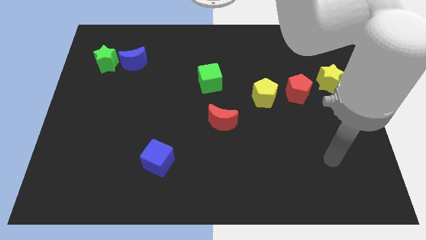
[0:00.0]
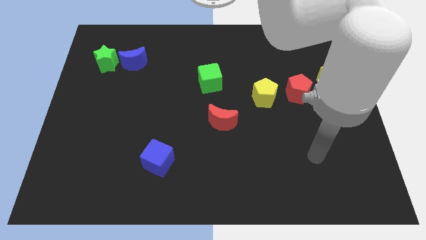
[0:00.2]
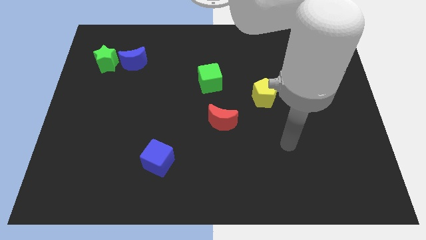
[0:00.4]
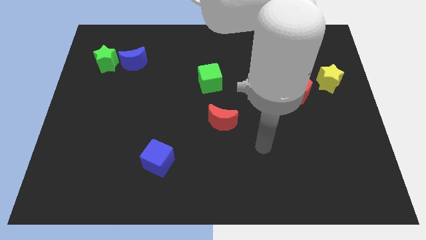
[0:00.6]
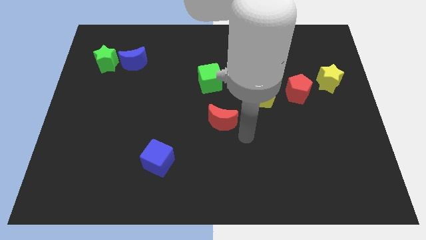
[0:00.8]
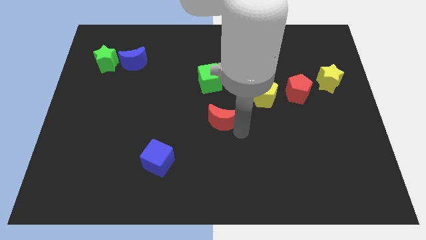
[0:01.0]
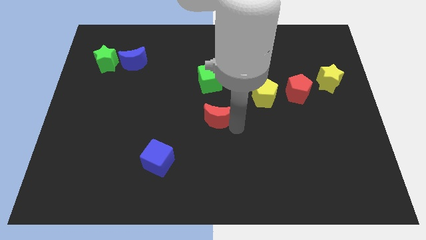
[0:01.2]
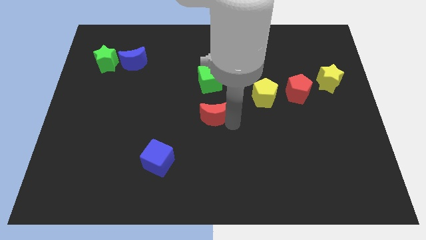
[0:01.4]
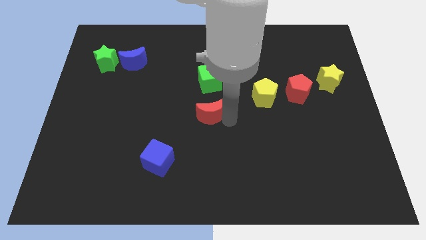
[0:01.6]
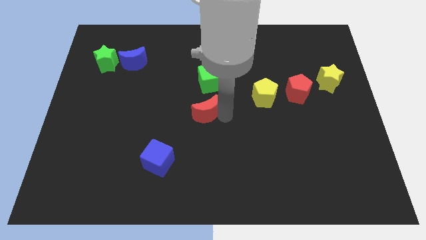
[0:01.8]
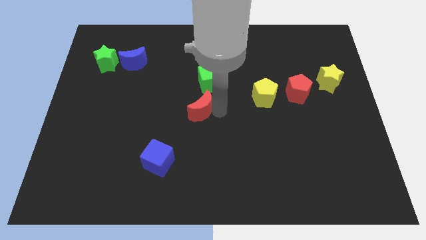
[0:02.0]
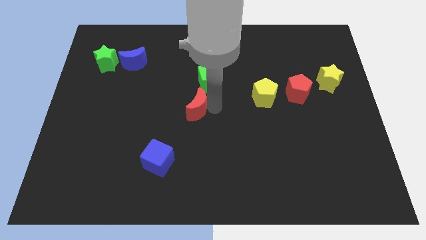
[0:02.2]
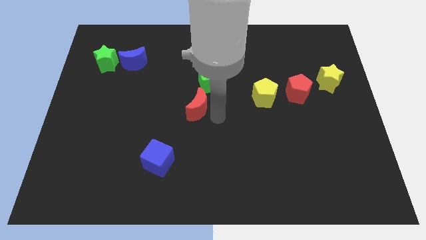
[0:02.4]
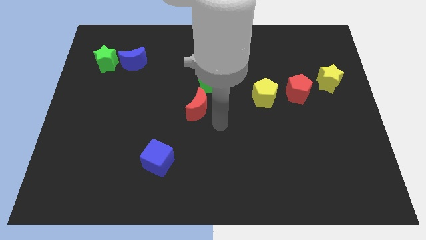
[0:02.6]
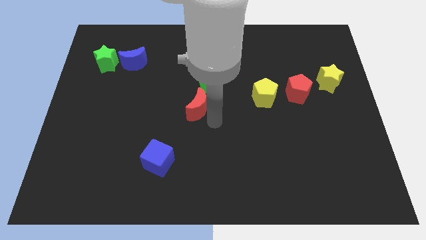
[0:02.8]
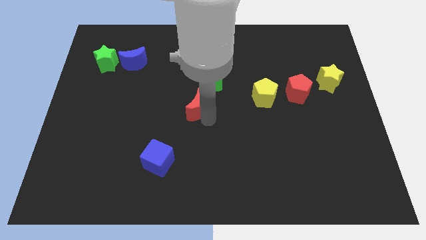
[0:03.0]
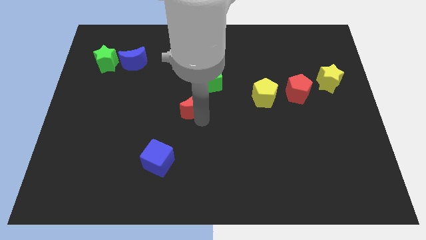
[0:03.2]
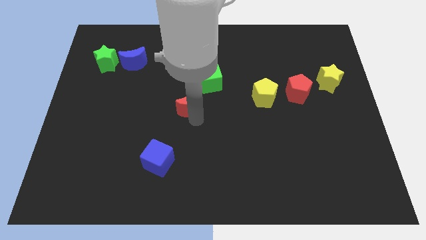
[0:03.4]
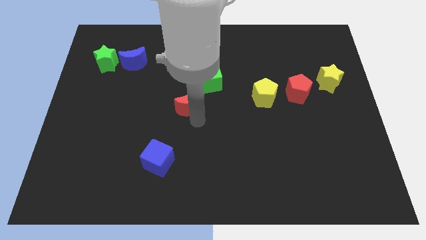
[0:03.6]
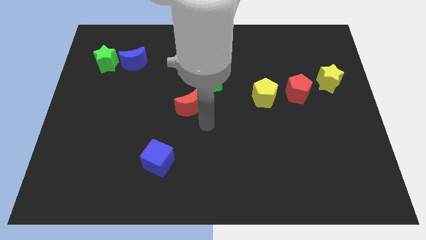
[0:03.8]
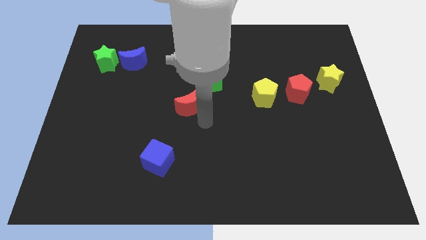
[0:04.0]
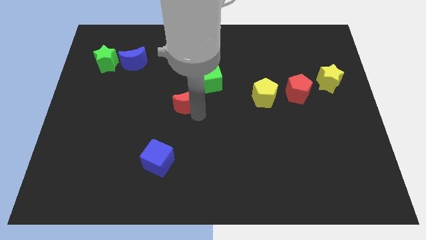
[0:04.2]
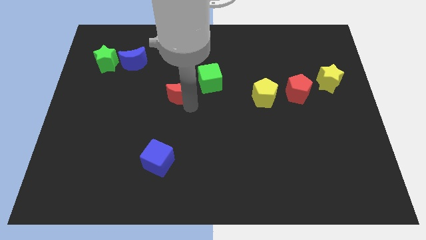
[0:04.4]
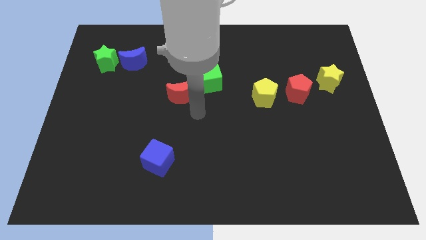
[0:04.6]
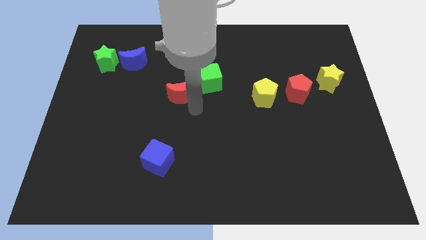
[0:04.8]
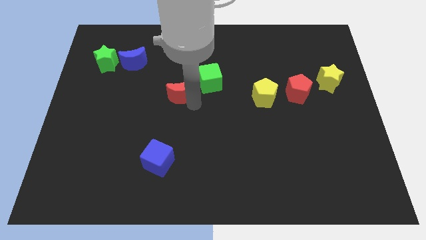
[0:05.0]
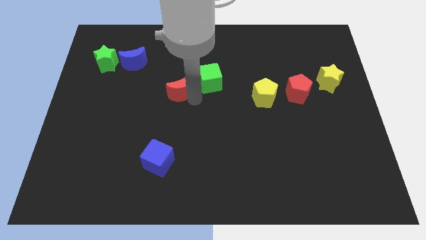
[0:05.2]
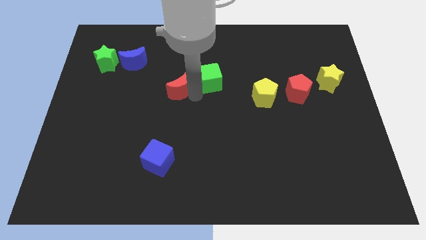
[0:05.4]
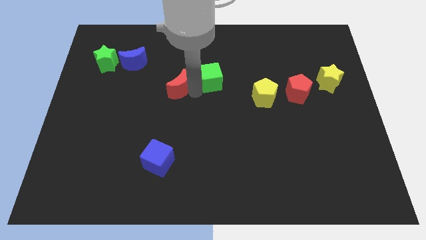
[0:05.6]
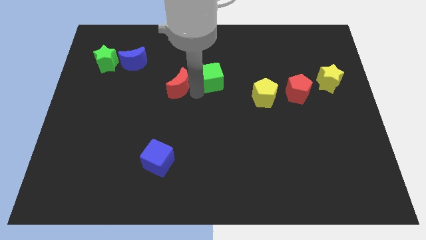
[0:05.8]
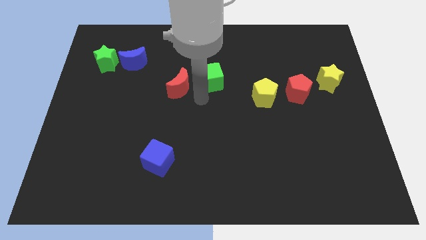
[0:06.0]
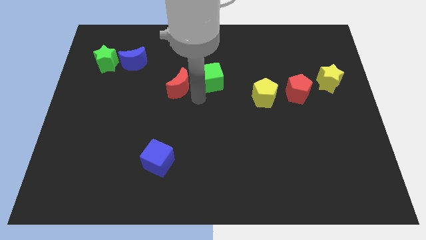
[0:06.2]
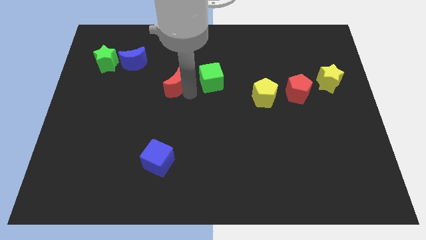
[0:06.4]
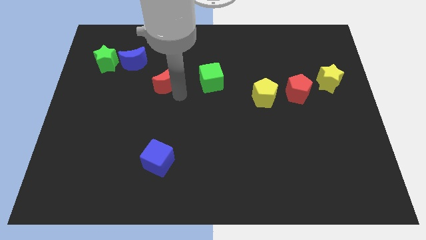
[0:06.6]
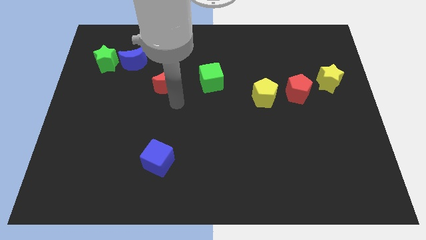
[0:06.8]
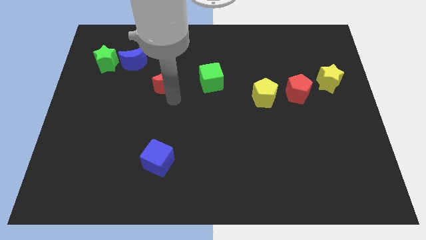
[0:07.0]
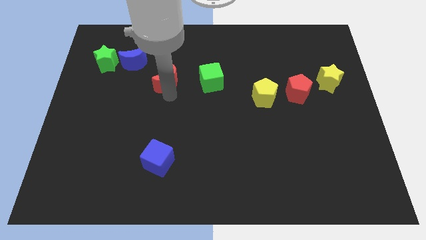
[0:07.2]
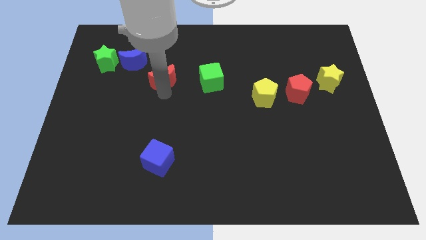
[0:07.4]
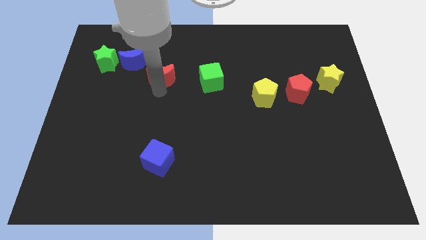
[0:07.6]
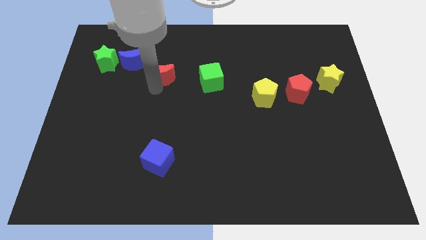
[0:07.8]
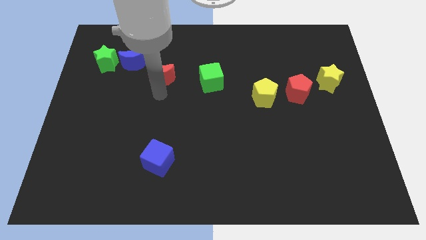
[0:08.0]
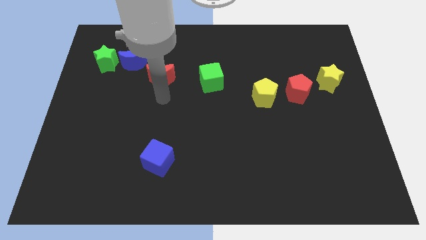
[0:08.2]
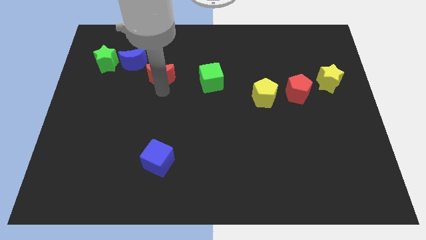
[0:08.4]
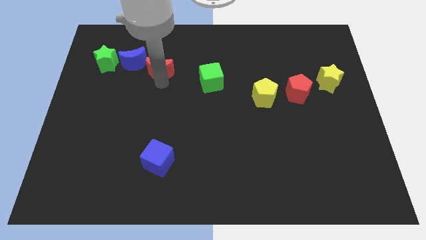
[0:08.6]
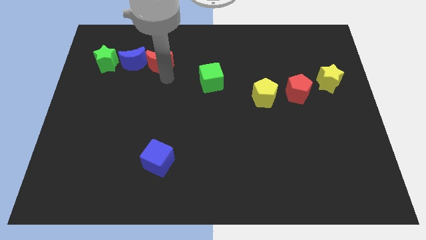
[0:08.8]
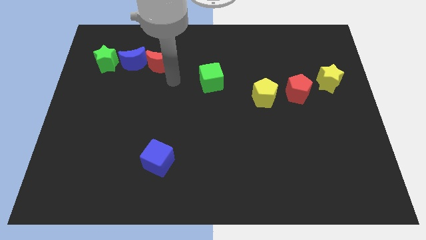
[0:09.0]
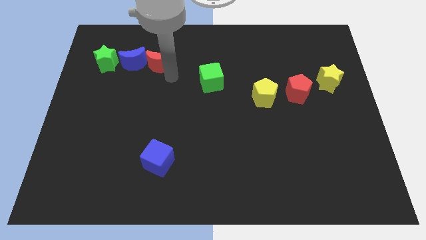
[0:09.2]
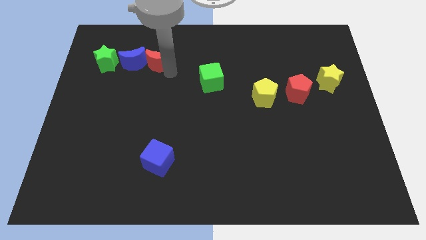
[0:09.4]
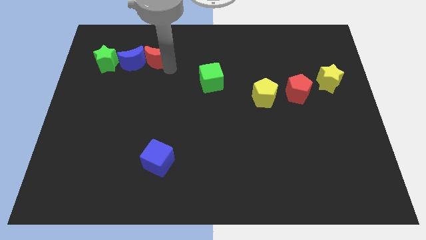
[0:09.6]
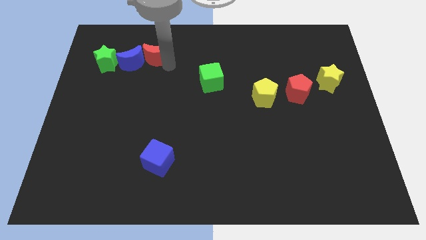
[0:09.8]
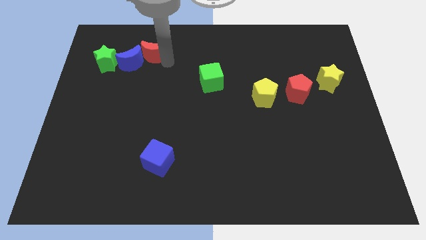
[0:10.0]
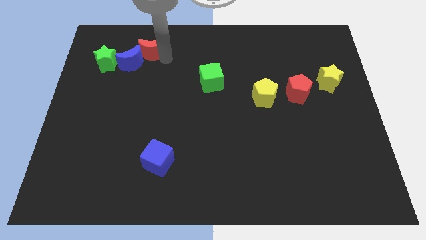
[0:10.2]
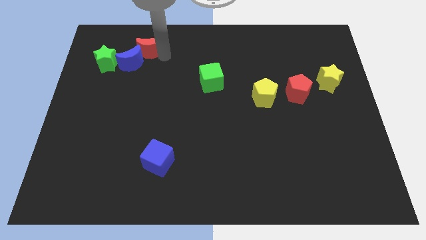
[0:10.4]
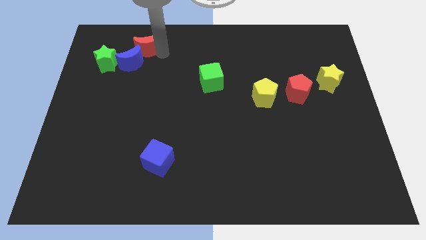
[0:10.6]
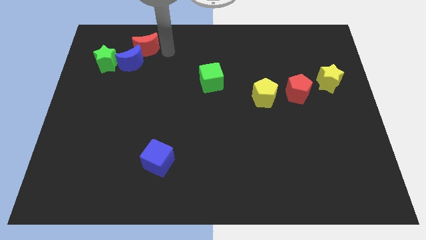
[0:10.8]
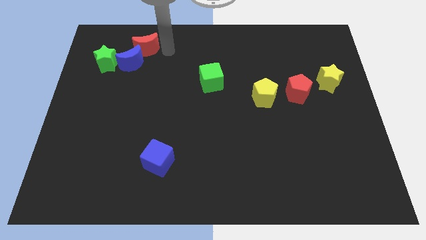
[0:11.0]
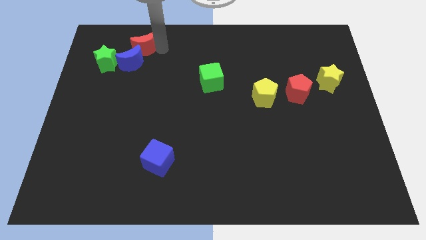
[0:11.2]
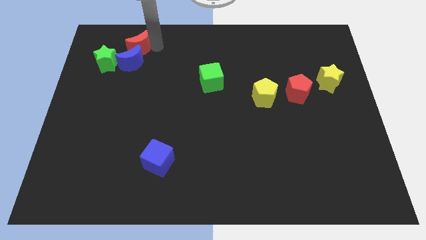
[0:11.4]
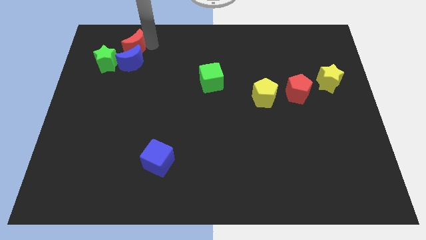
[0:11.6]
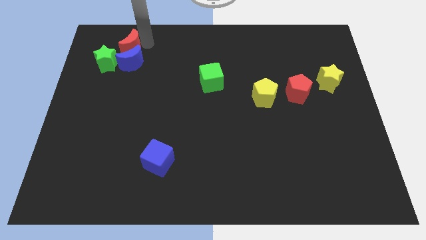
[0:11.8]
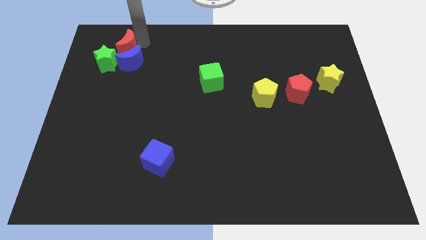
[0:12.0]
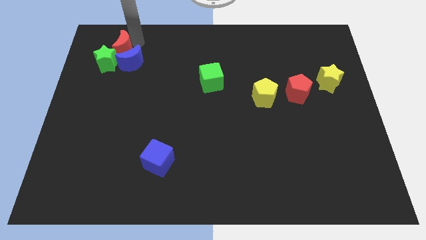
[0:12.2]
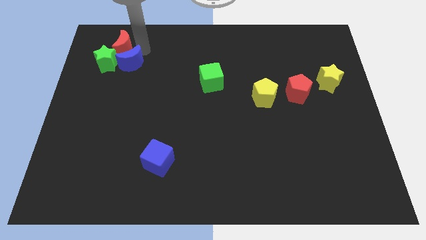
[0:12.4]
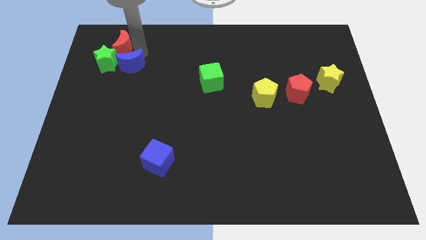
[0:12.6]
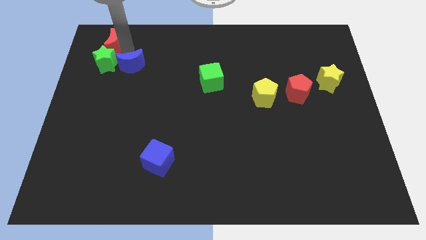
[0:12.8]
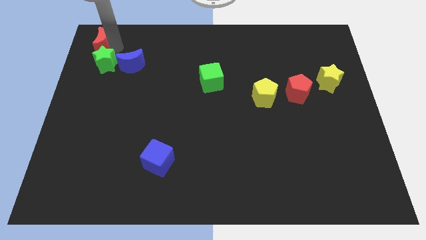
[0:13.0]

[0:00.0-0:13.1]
put the red moon to the upper left corner
